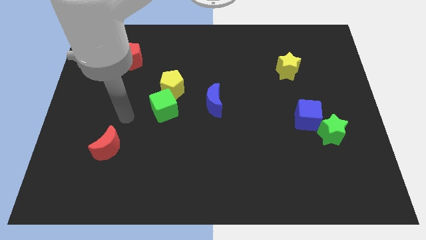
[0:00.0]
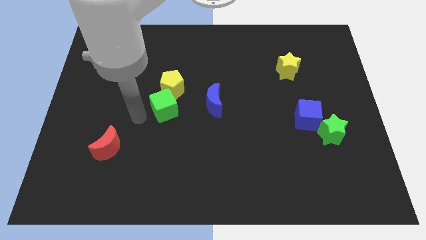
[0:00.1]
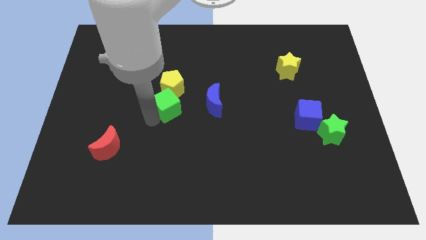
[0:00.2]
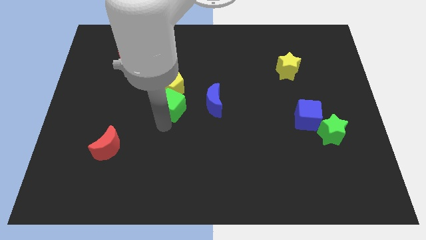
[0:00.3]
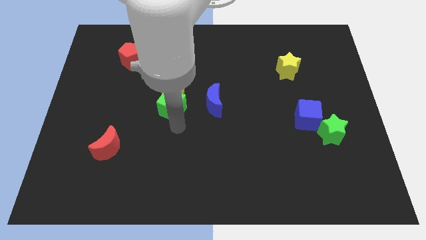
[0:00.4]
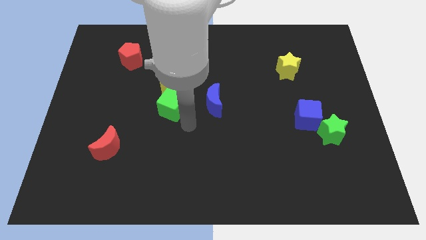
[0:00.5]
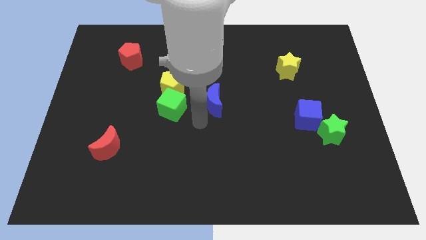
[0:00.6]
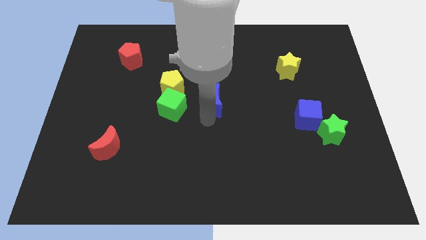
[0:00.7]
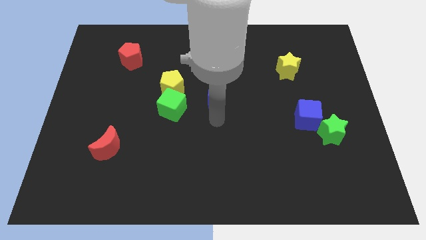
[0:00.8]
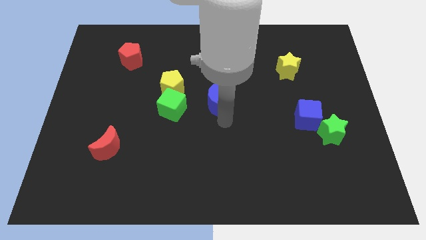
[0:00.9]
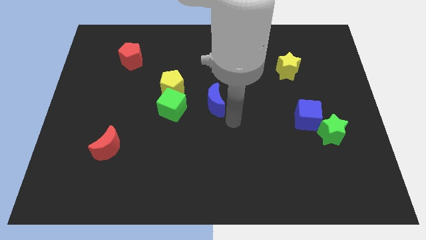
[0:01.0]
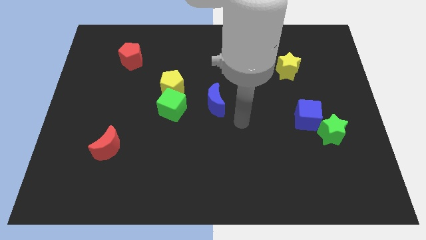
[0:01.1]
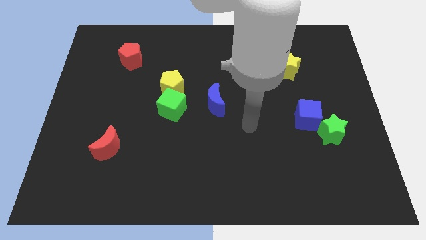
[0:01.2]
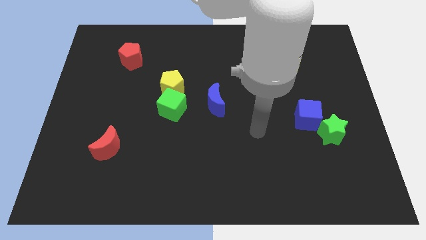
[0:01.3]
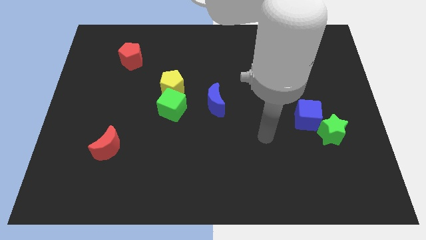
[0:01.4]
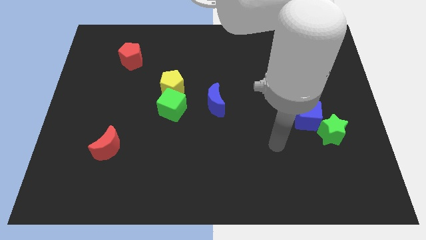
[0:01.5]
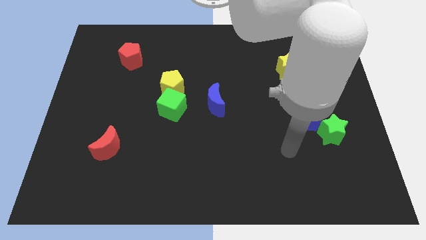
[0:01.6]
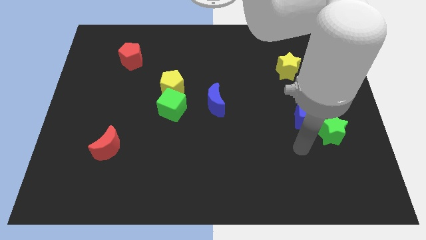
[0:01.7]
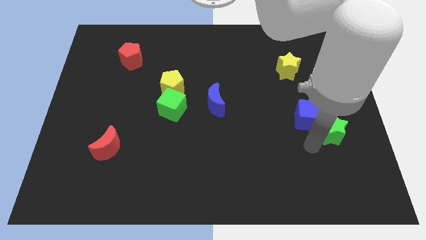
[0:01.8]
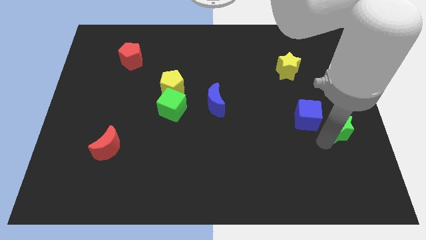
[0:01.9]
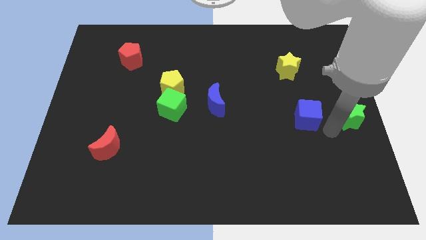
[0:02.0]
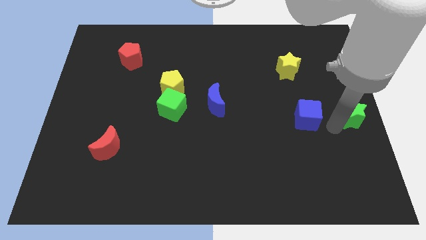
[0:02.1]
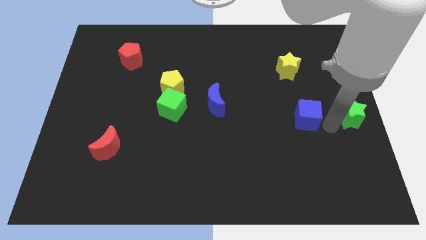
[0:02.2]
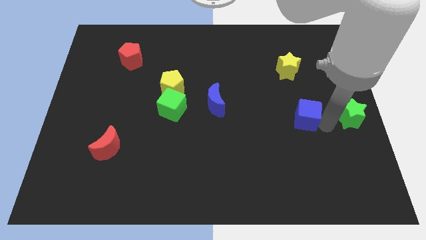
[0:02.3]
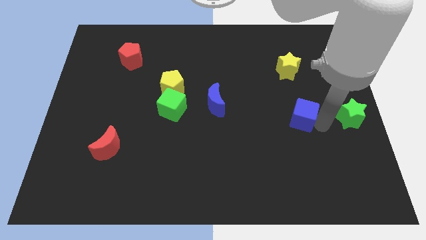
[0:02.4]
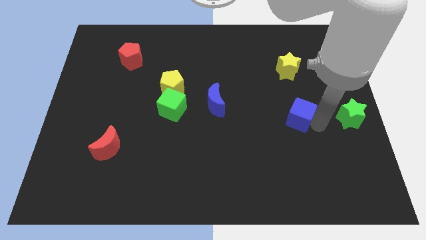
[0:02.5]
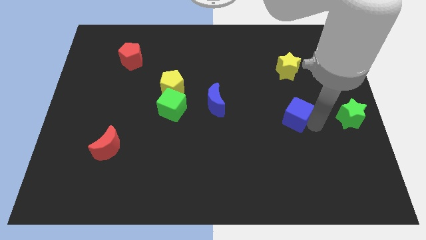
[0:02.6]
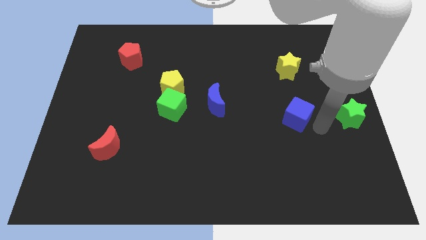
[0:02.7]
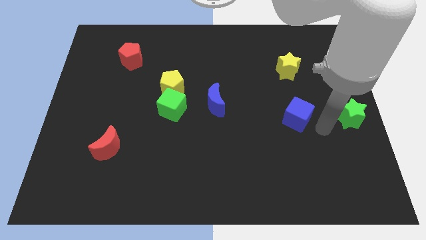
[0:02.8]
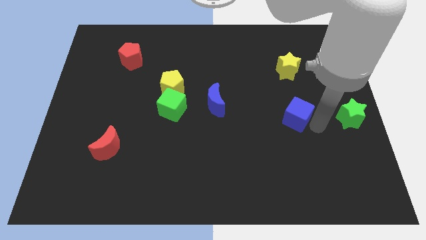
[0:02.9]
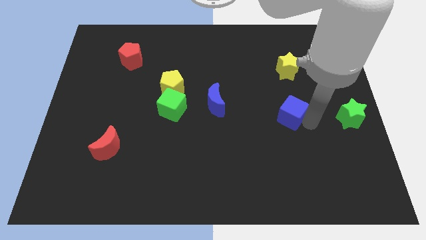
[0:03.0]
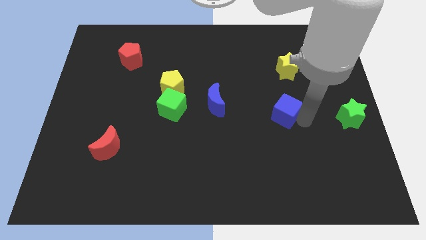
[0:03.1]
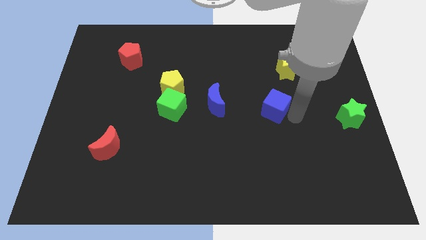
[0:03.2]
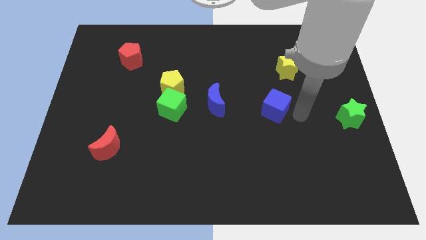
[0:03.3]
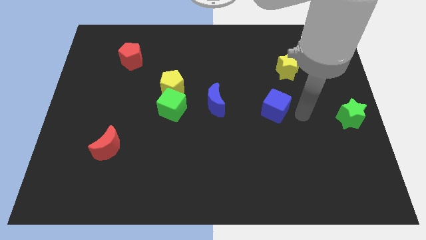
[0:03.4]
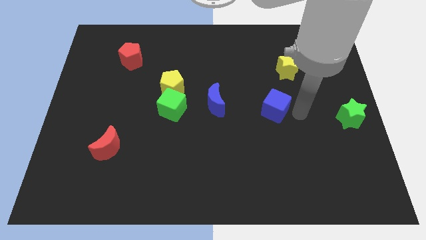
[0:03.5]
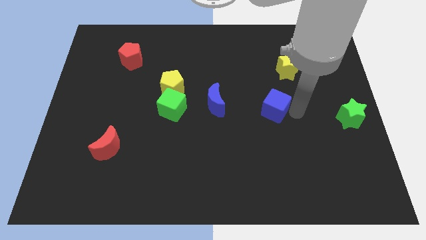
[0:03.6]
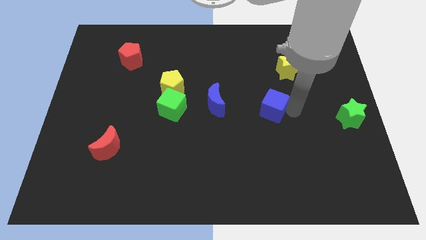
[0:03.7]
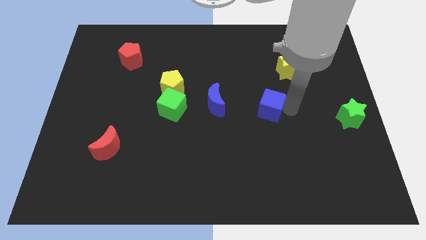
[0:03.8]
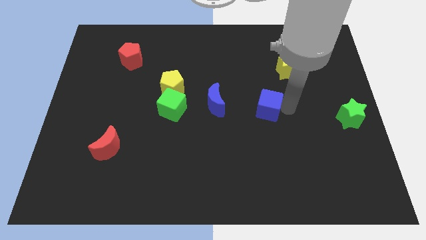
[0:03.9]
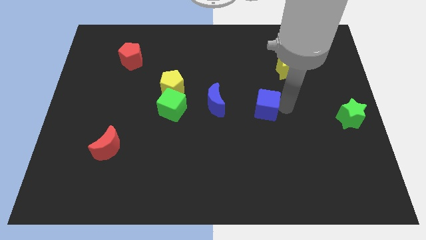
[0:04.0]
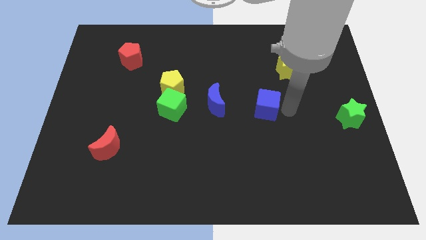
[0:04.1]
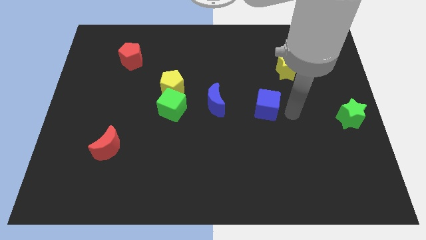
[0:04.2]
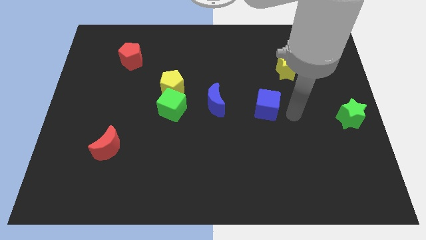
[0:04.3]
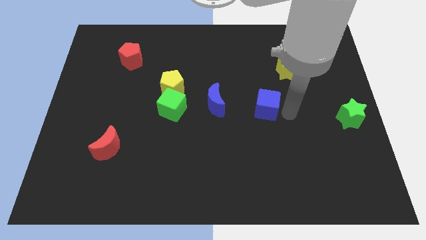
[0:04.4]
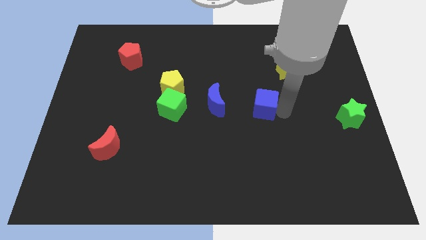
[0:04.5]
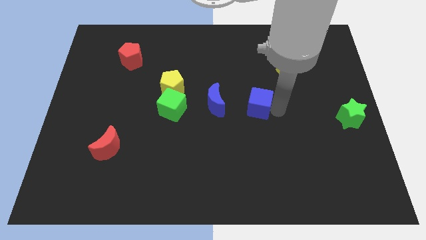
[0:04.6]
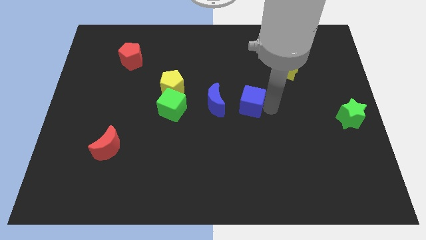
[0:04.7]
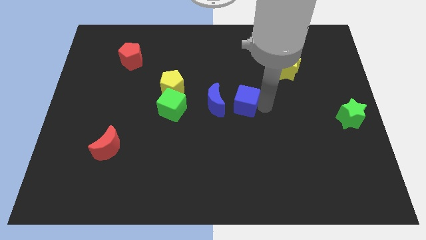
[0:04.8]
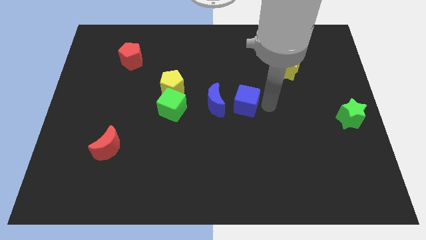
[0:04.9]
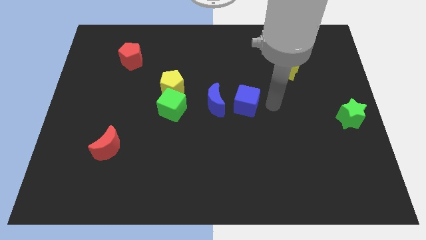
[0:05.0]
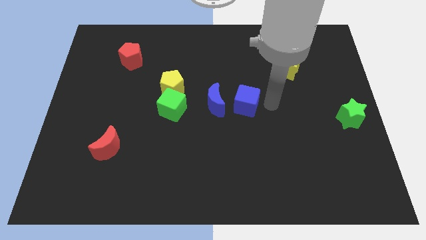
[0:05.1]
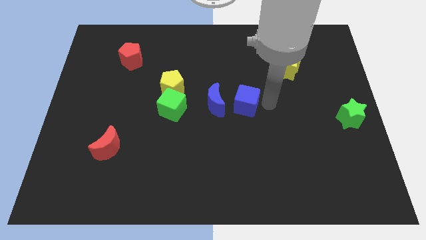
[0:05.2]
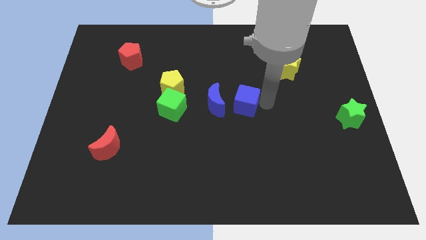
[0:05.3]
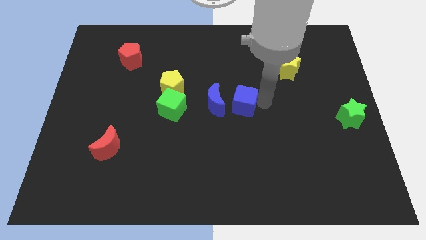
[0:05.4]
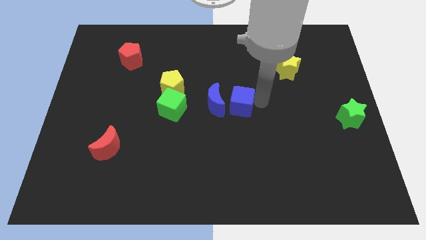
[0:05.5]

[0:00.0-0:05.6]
put the blue cube to the blue moon

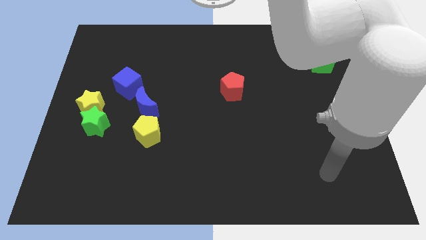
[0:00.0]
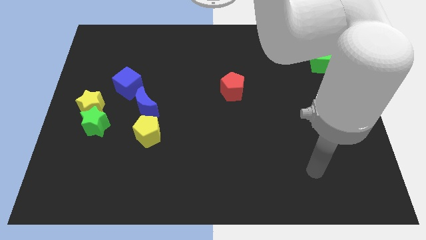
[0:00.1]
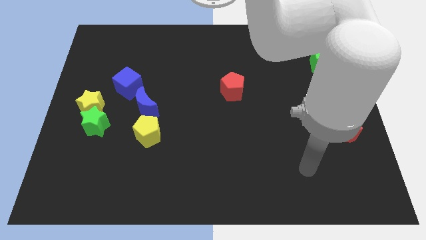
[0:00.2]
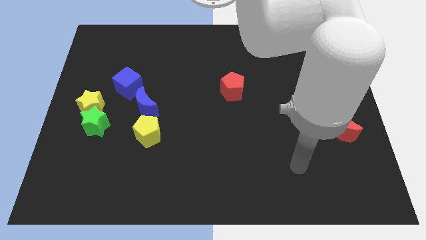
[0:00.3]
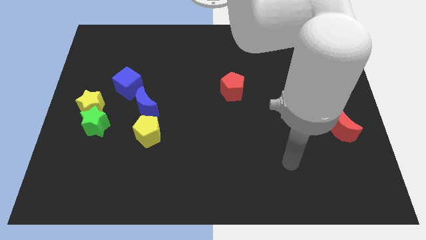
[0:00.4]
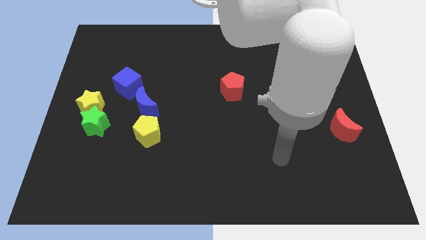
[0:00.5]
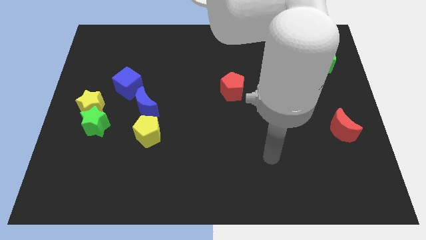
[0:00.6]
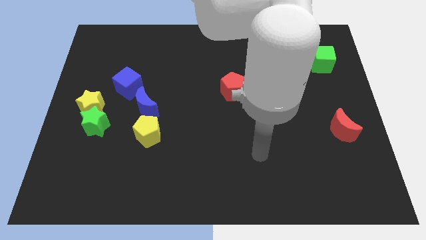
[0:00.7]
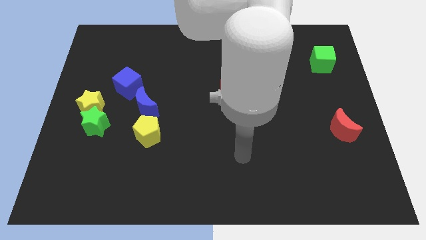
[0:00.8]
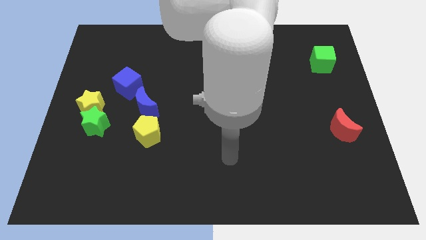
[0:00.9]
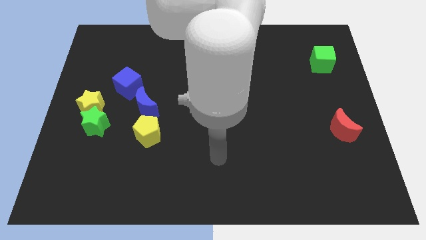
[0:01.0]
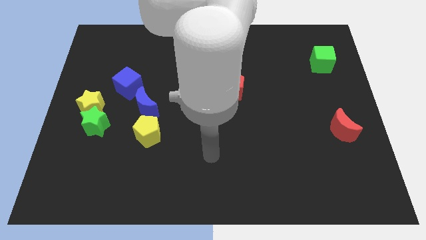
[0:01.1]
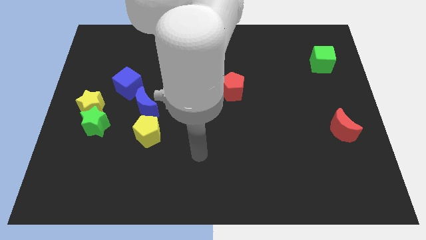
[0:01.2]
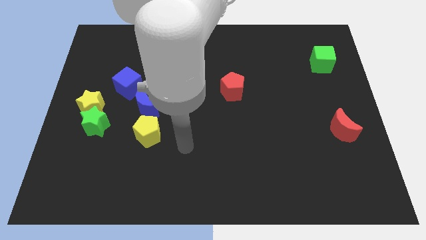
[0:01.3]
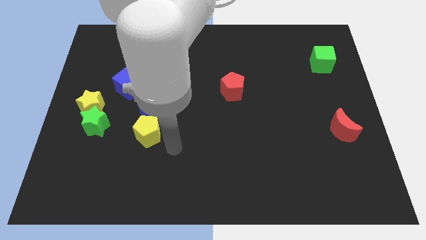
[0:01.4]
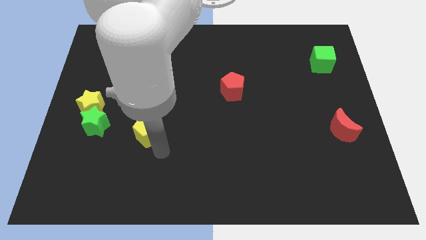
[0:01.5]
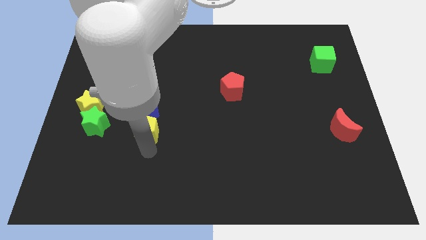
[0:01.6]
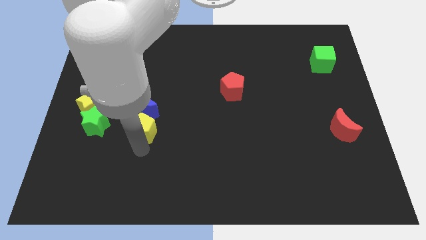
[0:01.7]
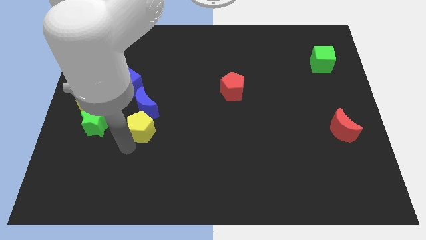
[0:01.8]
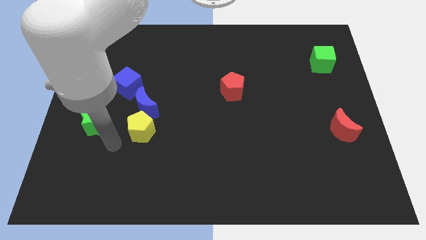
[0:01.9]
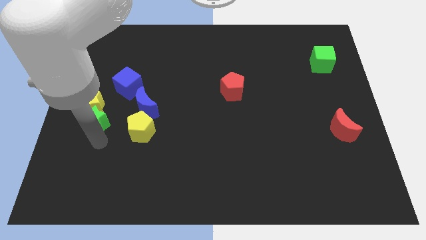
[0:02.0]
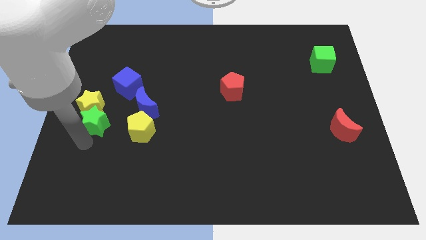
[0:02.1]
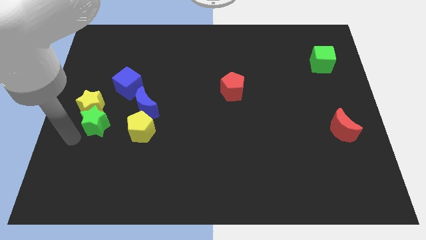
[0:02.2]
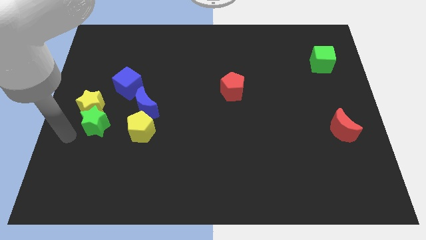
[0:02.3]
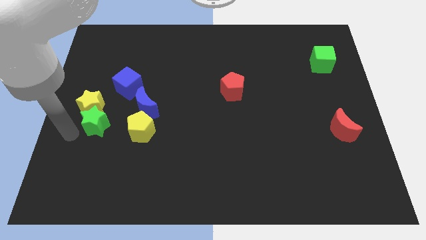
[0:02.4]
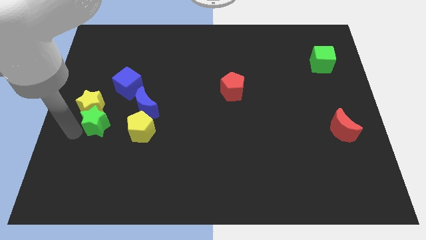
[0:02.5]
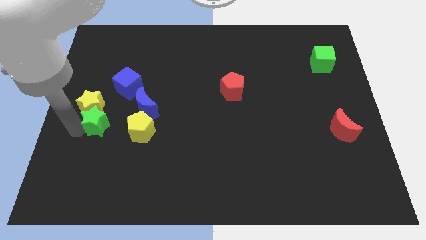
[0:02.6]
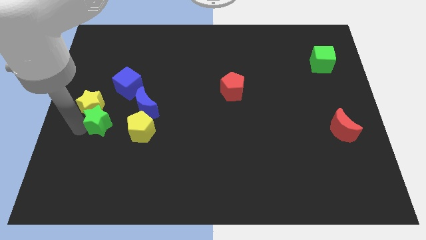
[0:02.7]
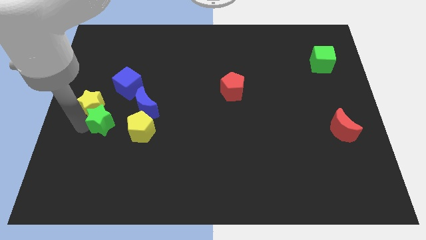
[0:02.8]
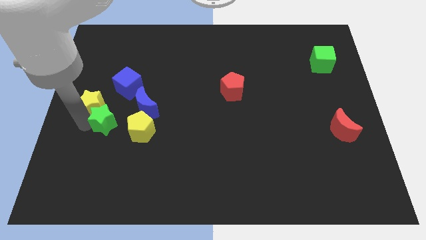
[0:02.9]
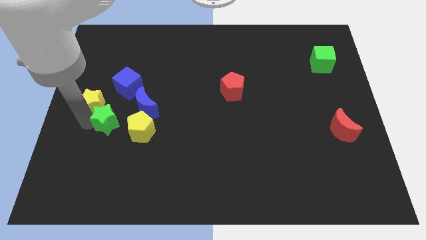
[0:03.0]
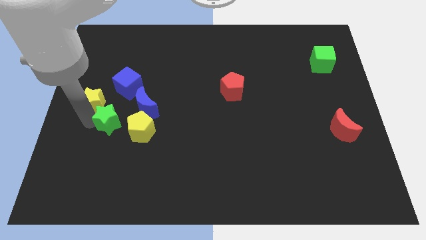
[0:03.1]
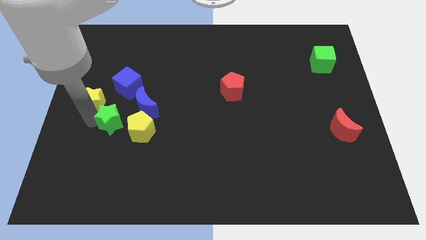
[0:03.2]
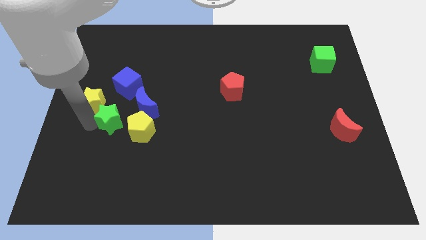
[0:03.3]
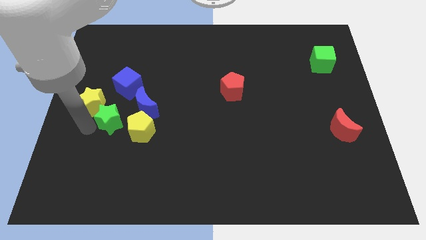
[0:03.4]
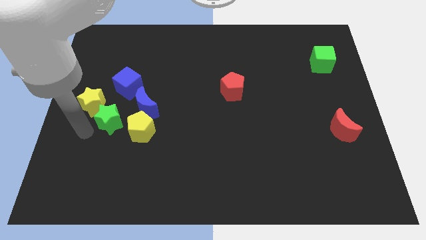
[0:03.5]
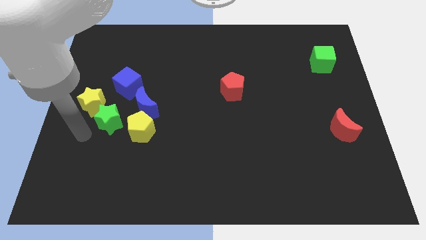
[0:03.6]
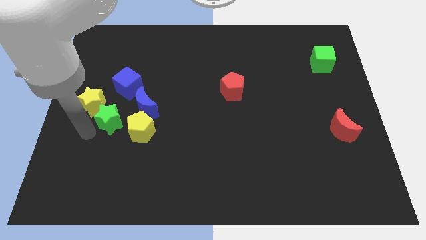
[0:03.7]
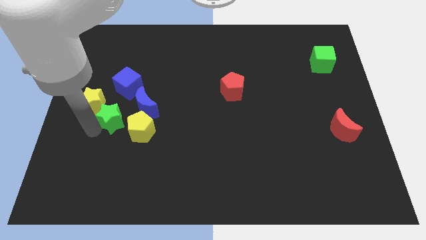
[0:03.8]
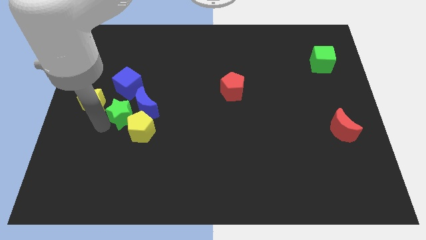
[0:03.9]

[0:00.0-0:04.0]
slide the green star next to the blue moon
